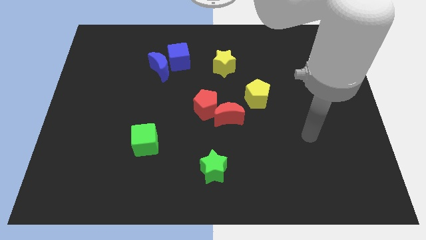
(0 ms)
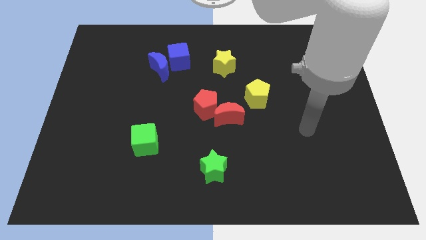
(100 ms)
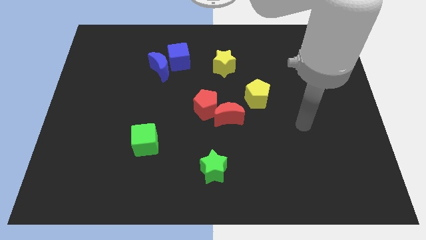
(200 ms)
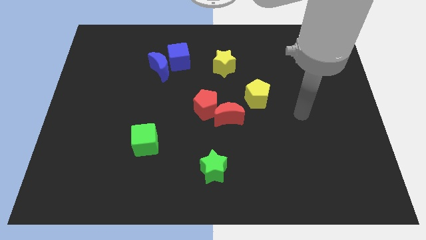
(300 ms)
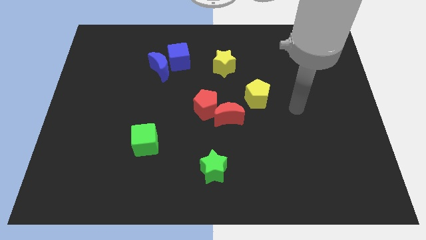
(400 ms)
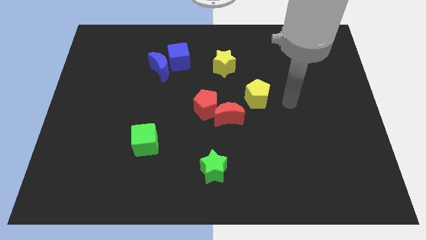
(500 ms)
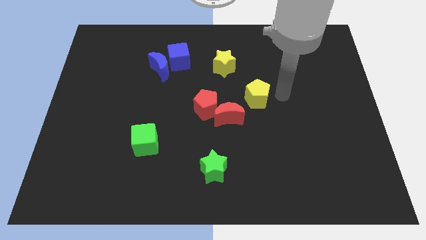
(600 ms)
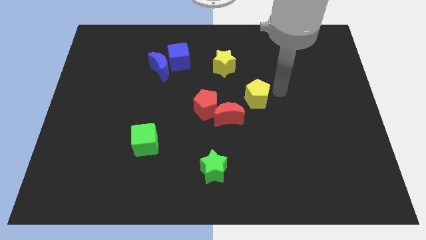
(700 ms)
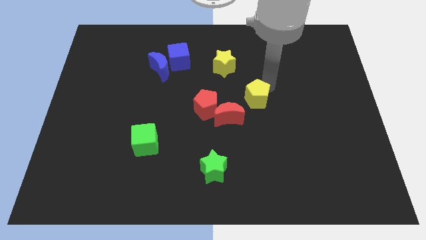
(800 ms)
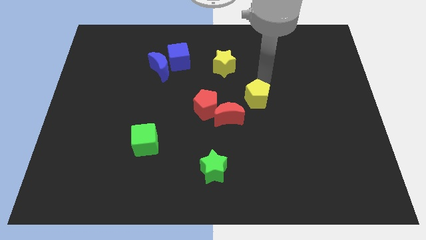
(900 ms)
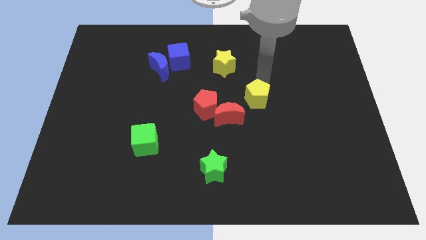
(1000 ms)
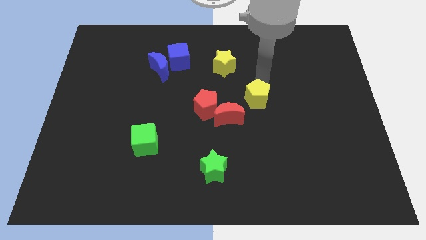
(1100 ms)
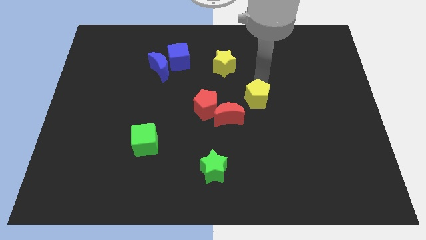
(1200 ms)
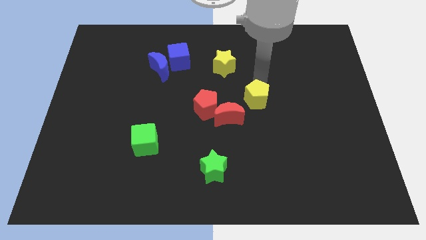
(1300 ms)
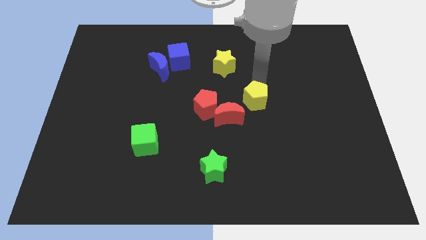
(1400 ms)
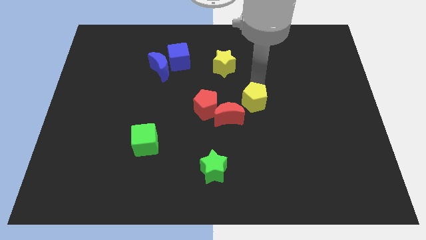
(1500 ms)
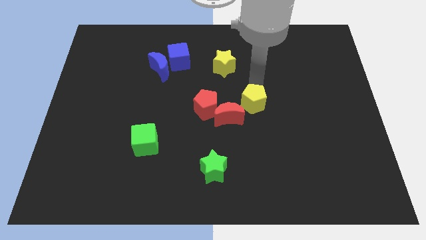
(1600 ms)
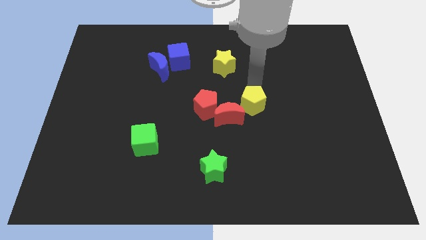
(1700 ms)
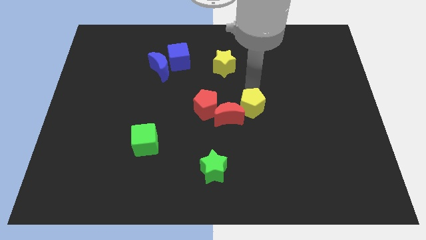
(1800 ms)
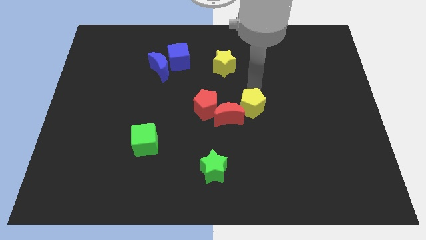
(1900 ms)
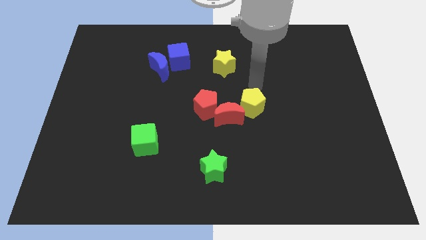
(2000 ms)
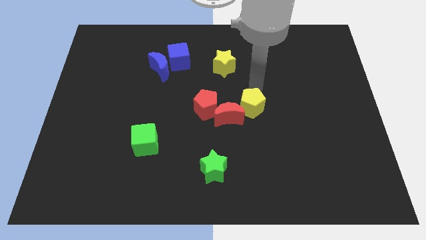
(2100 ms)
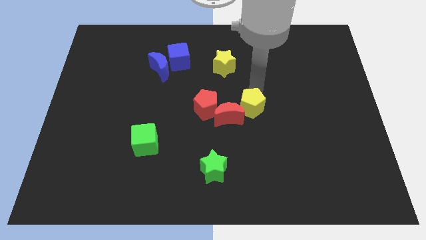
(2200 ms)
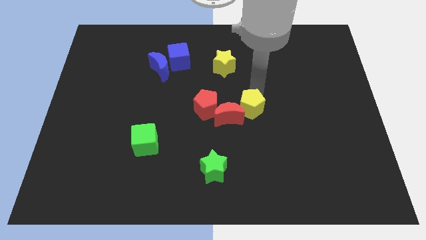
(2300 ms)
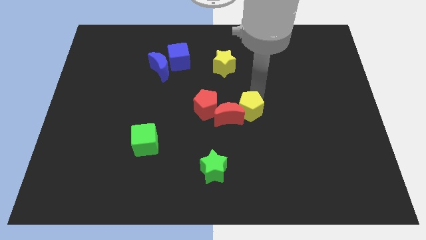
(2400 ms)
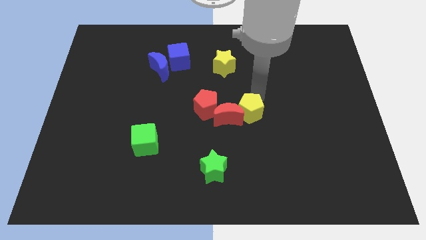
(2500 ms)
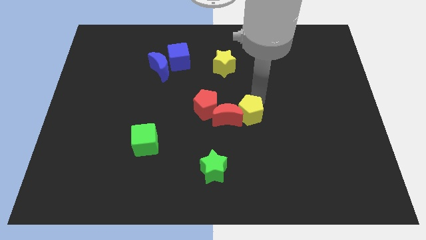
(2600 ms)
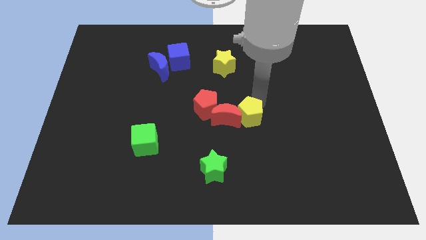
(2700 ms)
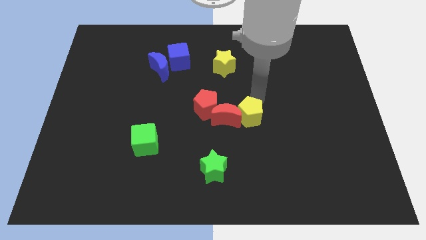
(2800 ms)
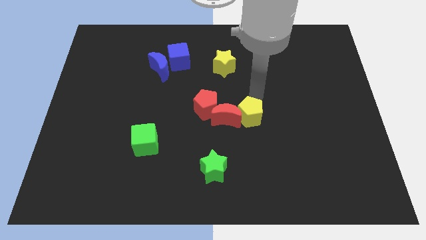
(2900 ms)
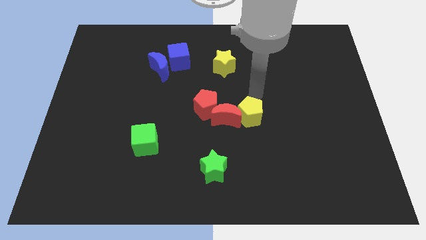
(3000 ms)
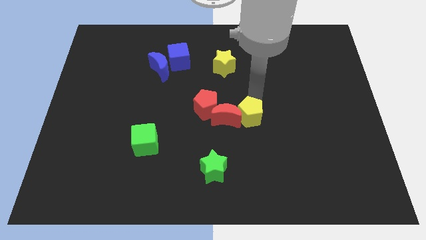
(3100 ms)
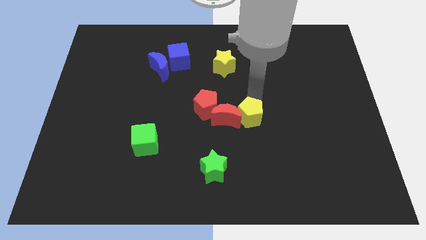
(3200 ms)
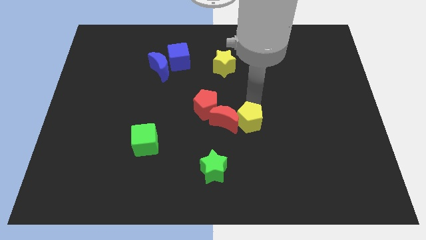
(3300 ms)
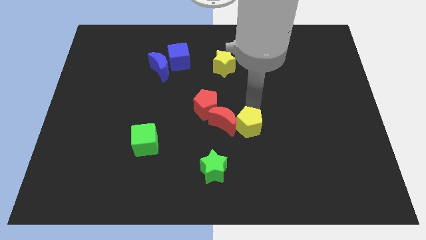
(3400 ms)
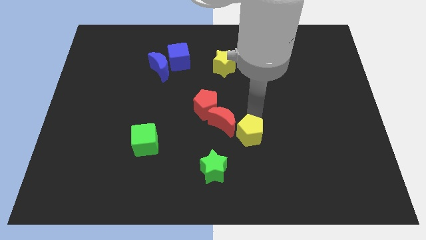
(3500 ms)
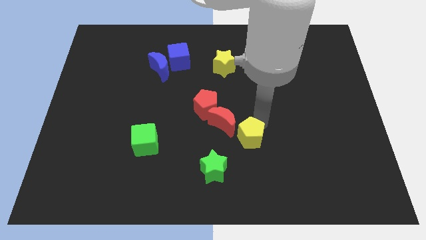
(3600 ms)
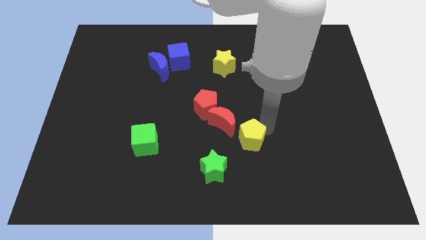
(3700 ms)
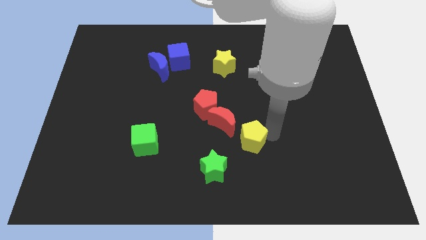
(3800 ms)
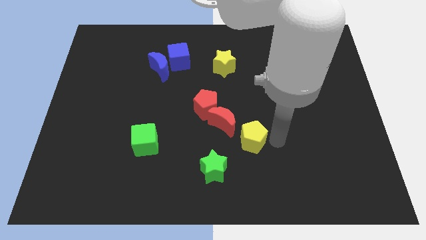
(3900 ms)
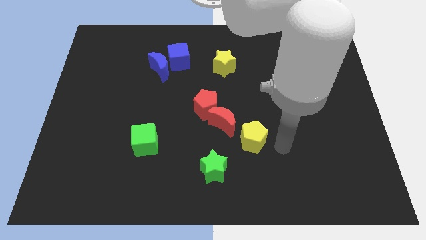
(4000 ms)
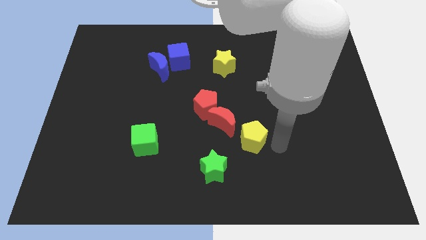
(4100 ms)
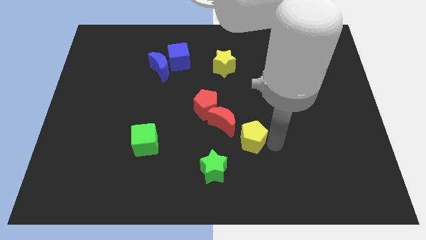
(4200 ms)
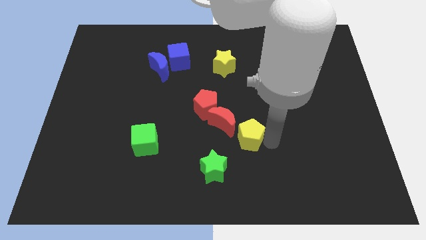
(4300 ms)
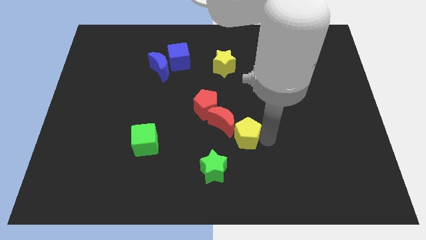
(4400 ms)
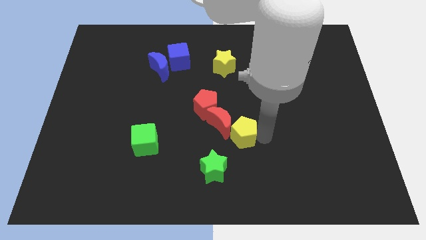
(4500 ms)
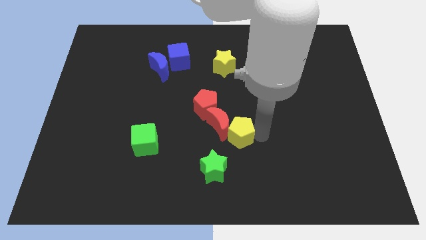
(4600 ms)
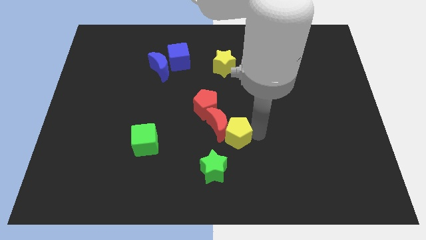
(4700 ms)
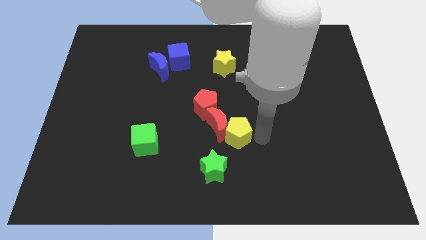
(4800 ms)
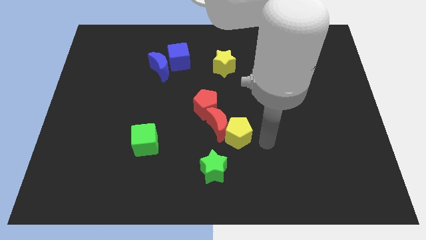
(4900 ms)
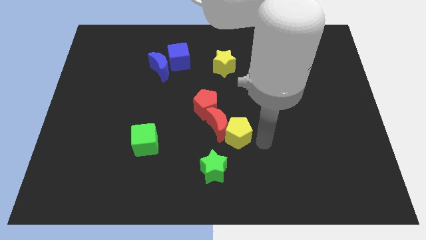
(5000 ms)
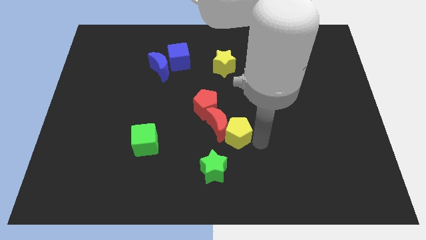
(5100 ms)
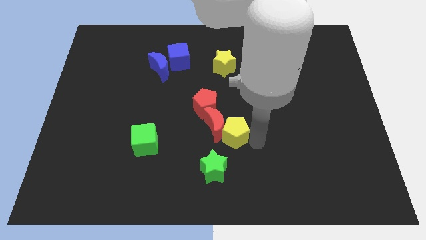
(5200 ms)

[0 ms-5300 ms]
slide the yellow pentagon to the top side of the green star
